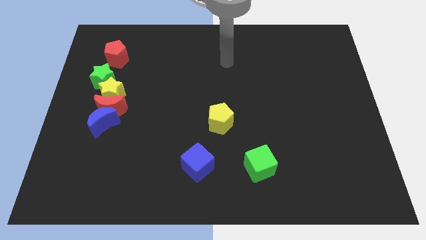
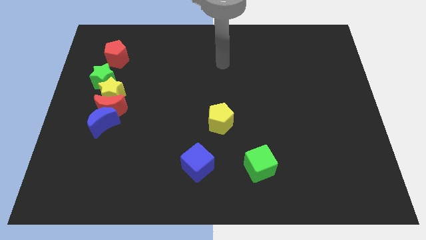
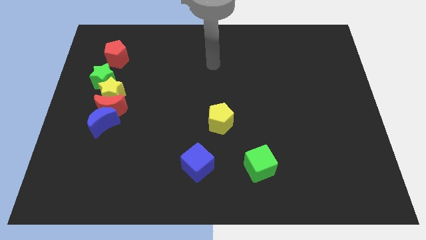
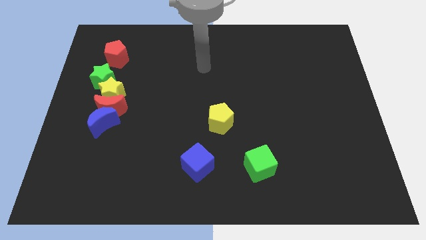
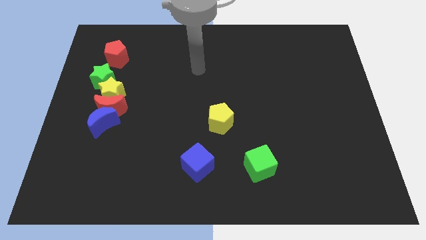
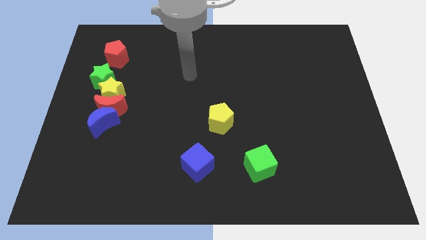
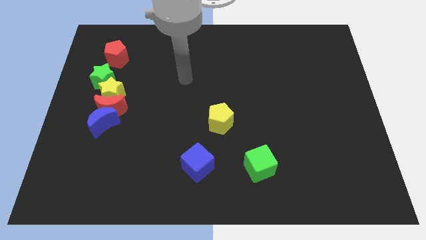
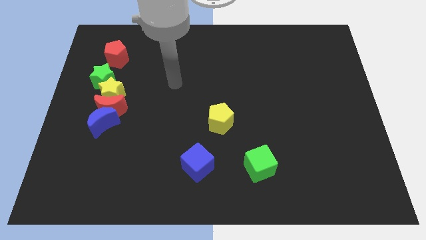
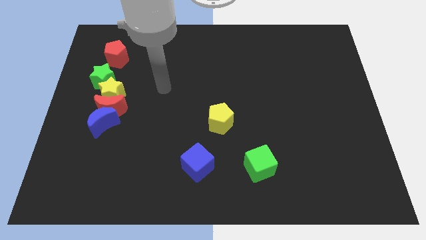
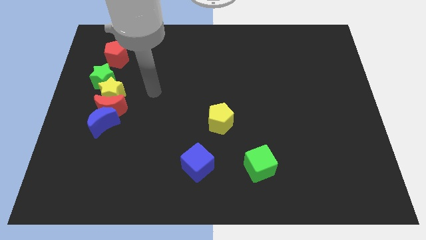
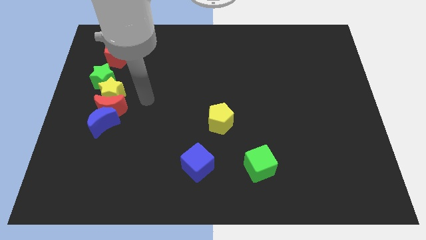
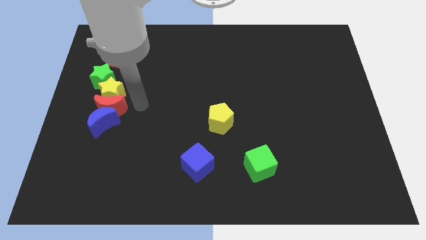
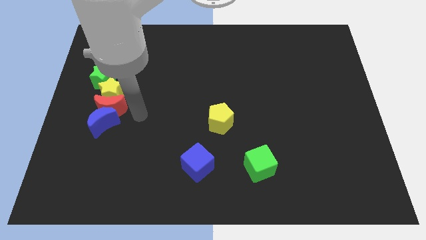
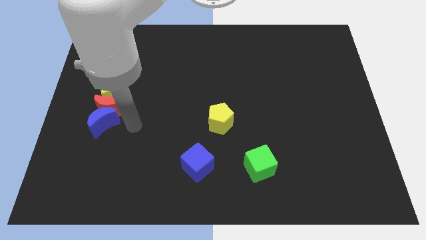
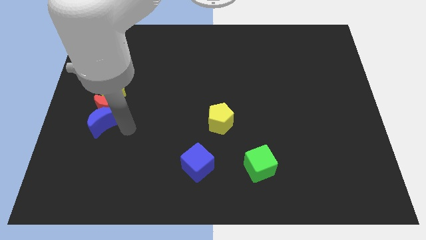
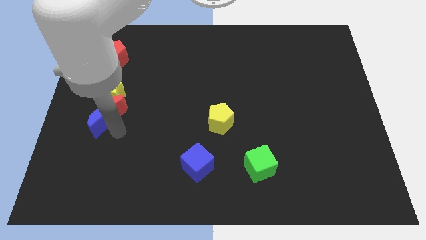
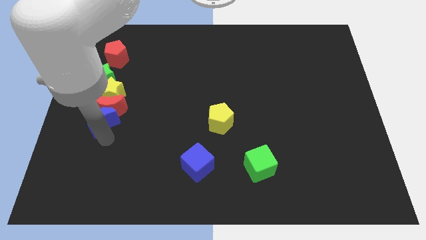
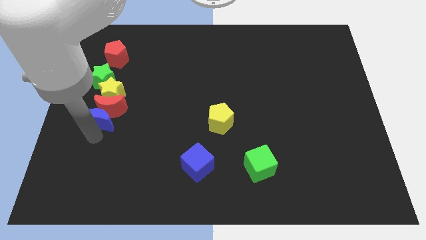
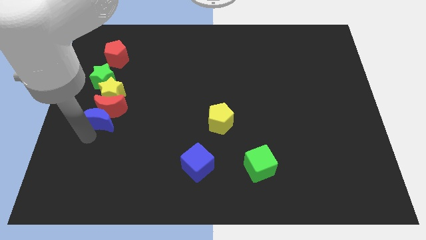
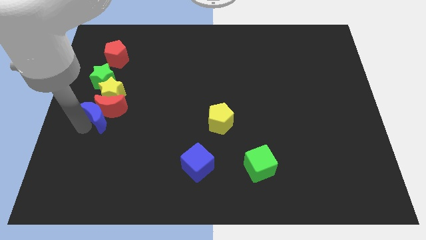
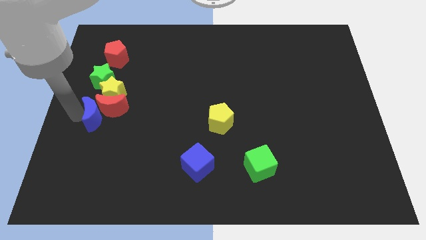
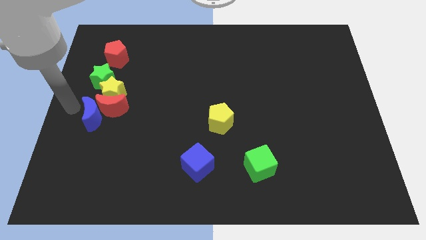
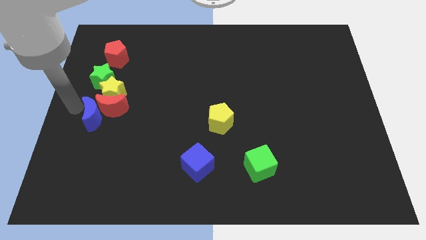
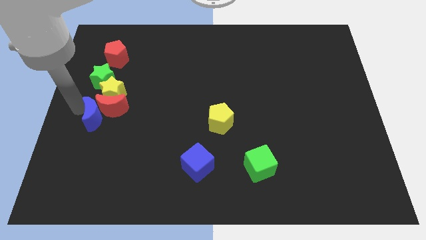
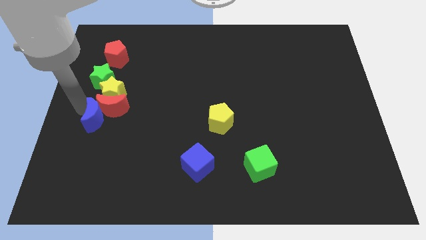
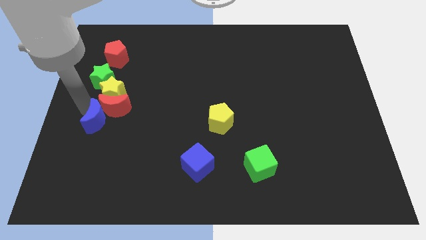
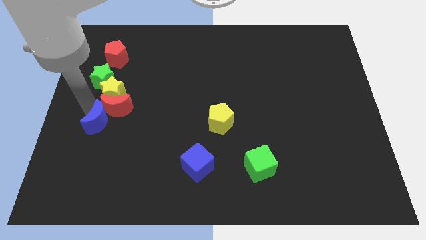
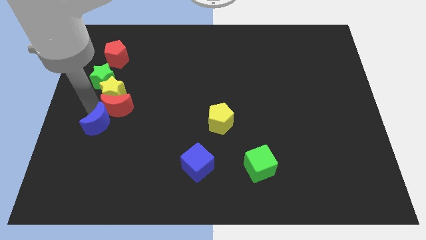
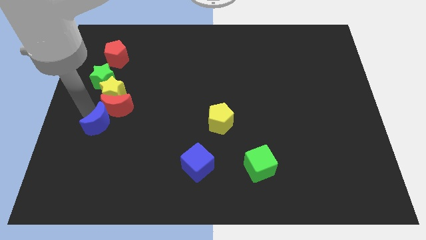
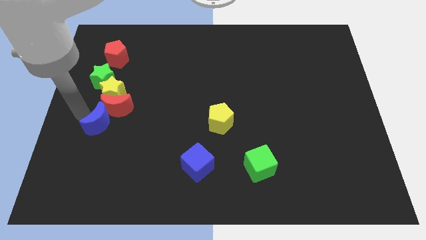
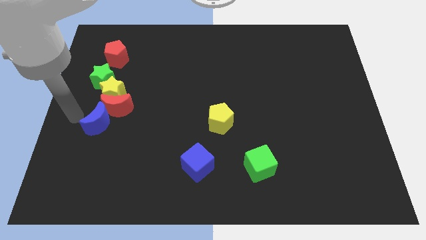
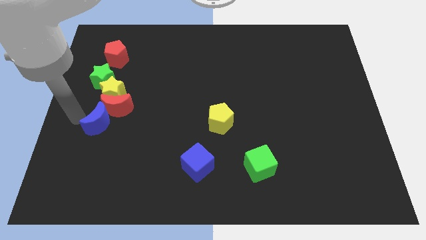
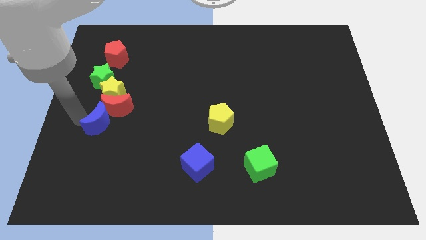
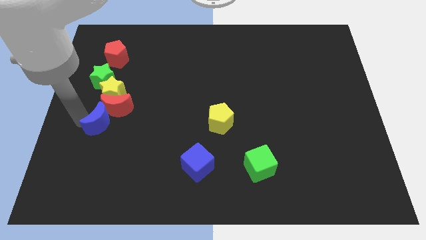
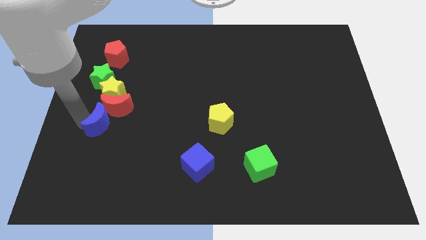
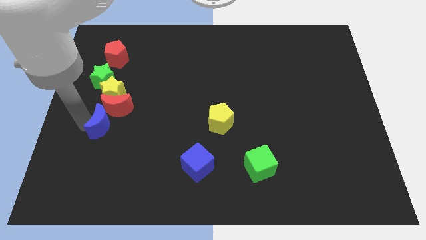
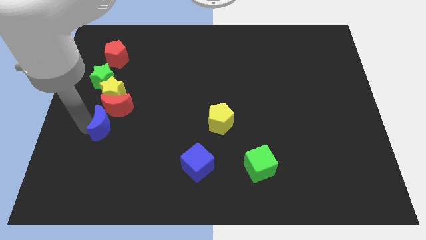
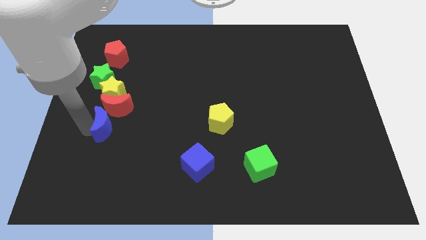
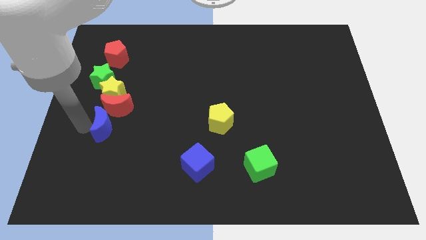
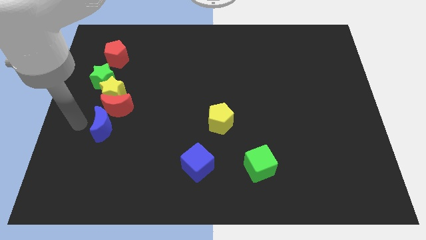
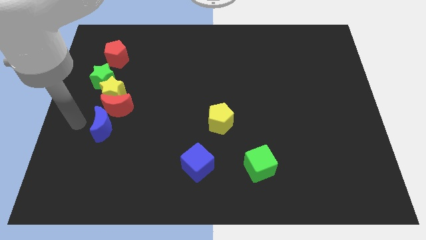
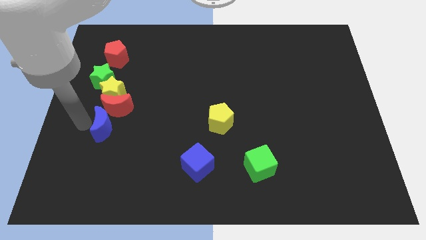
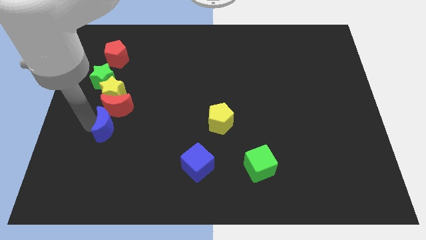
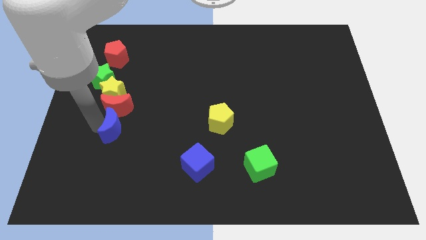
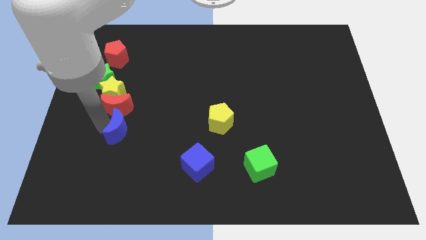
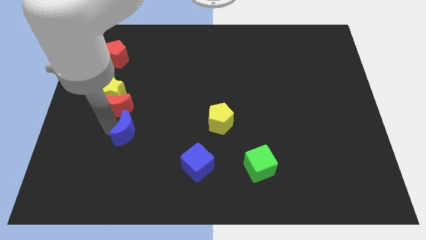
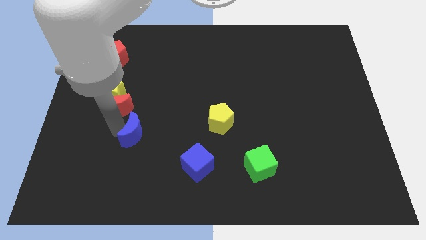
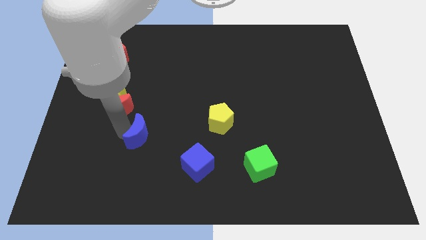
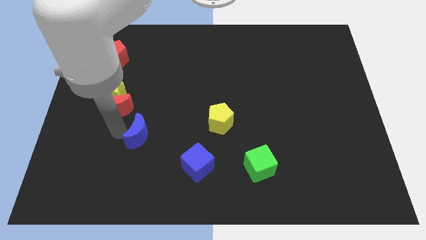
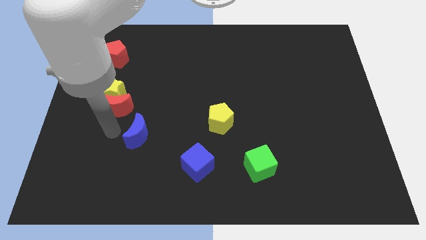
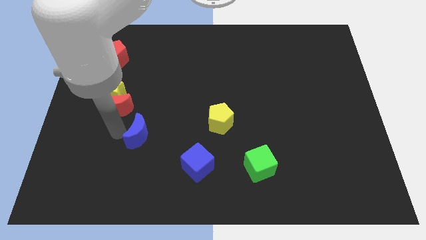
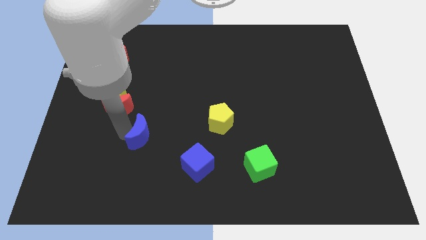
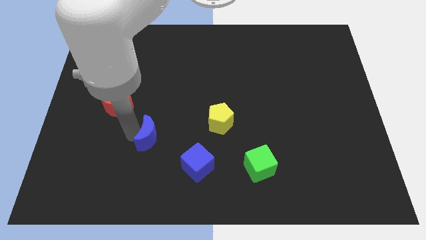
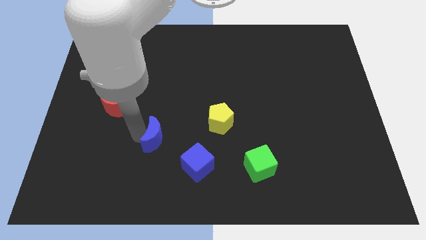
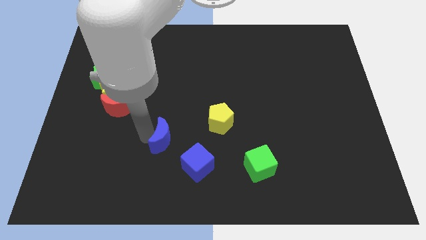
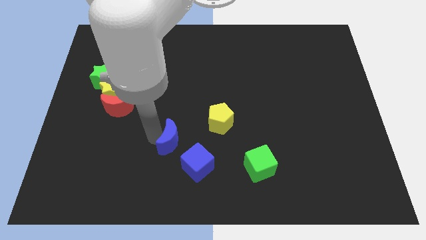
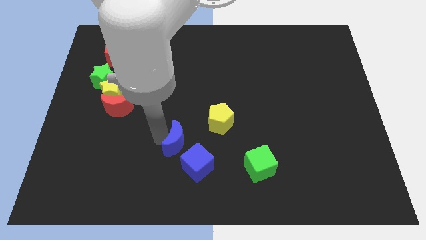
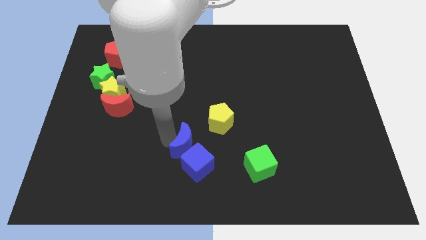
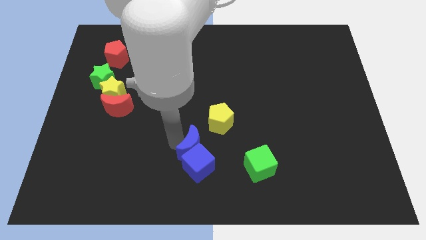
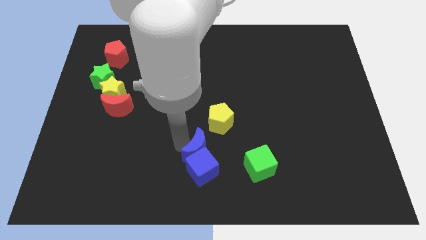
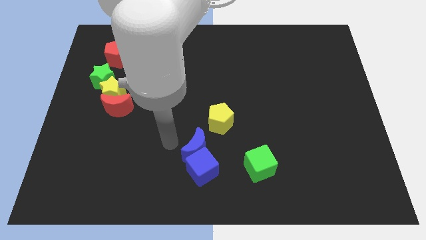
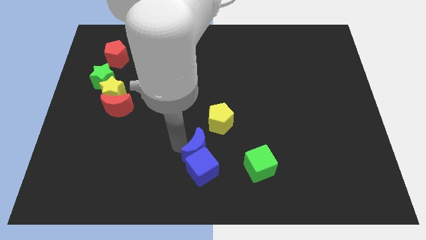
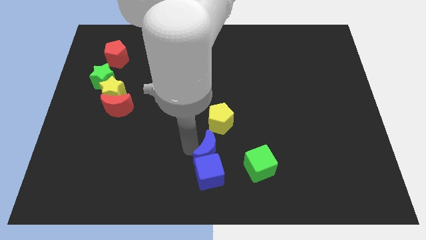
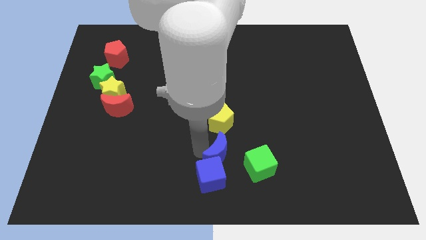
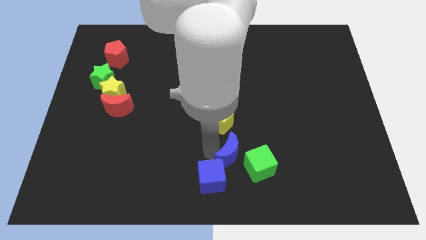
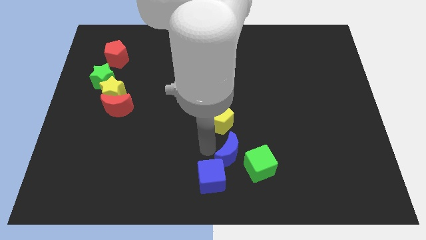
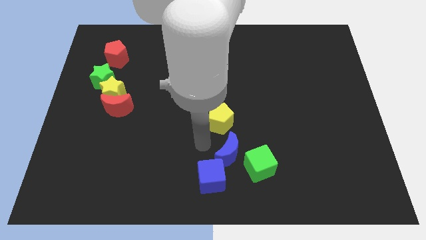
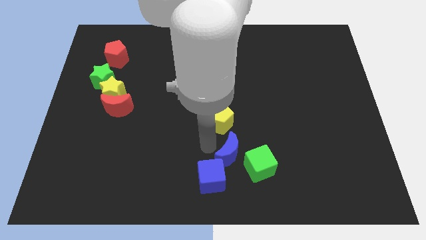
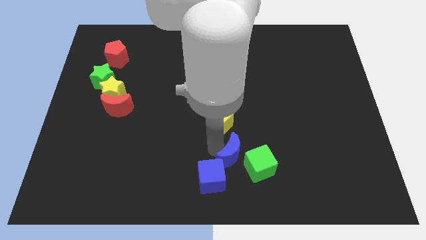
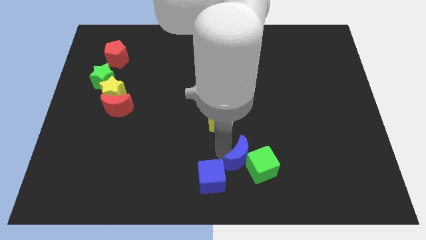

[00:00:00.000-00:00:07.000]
push the blue moon towards the green cube

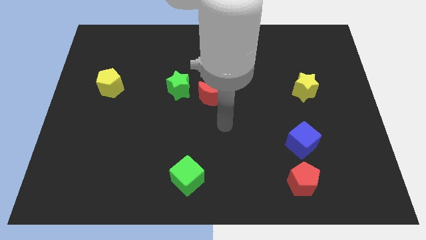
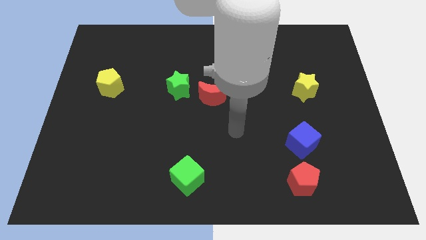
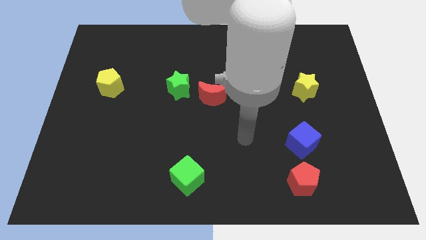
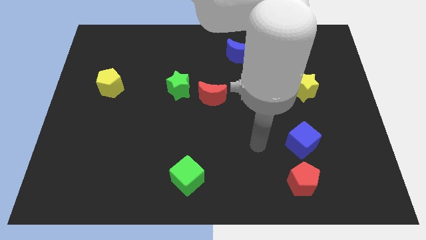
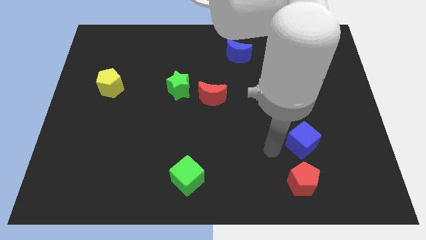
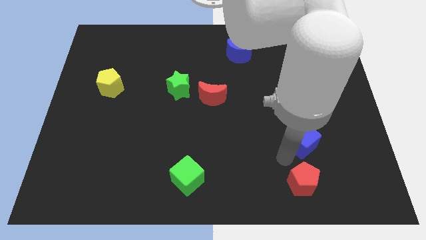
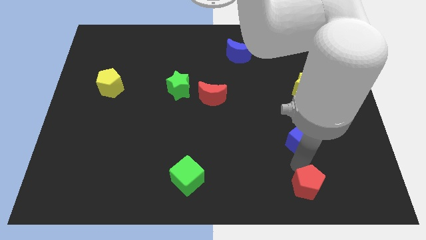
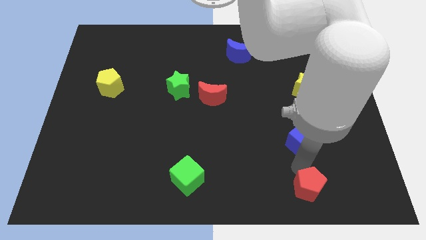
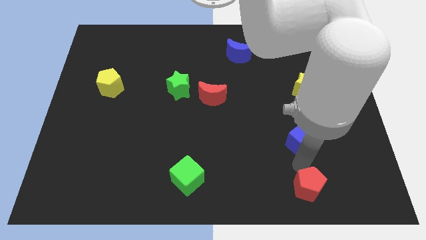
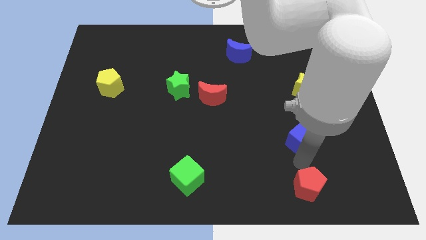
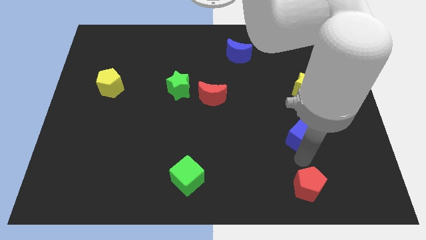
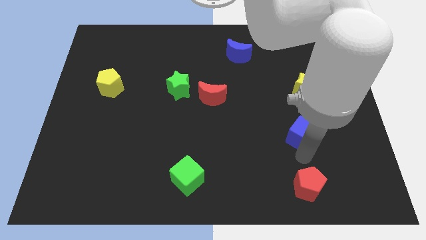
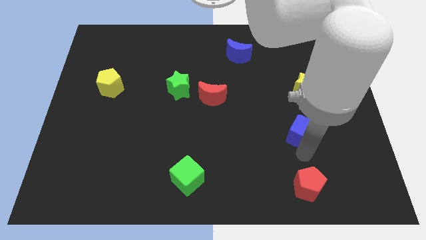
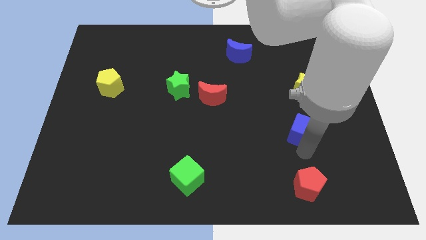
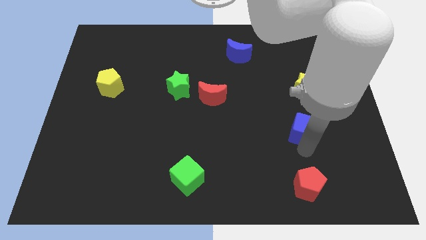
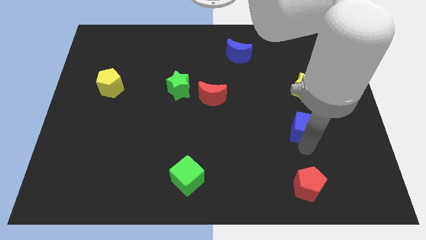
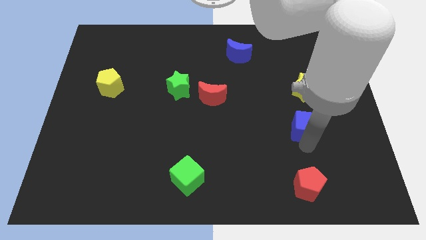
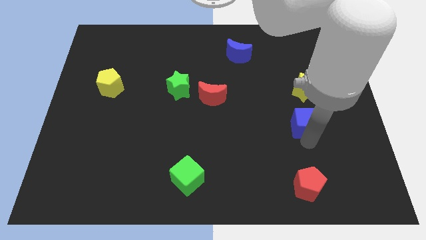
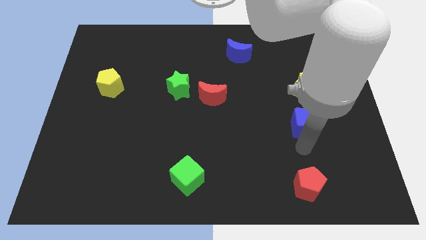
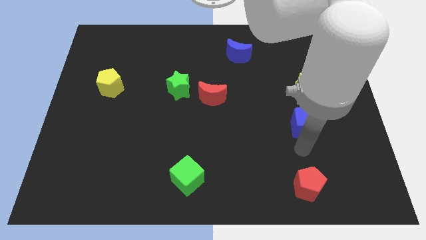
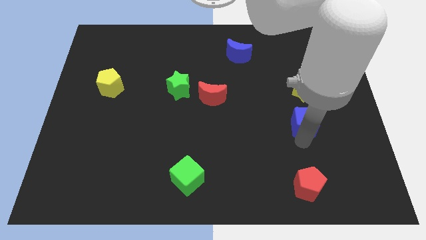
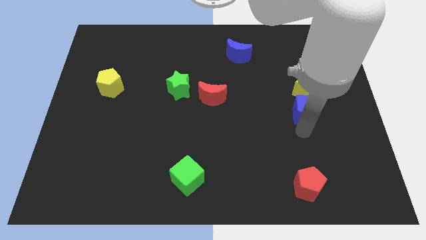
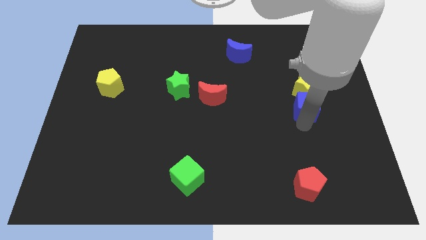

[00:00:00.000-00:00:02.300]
slide the blue cube next to the yellow star
